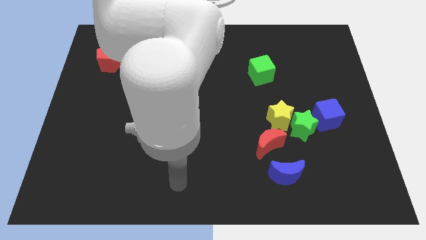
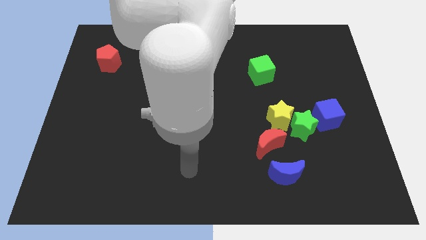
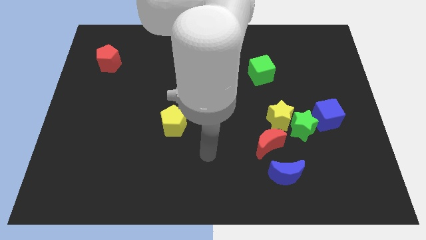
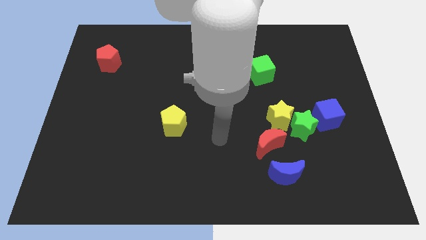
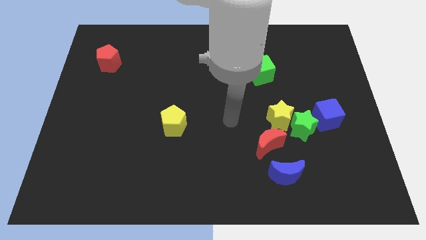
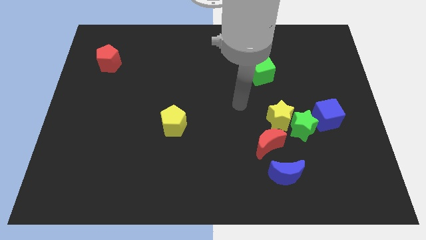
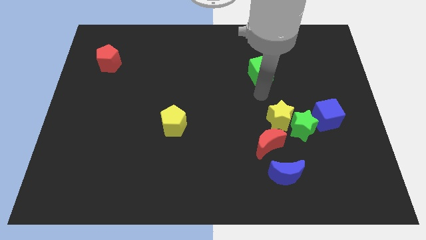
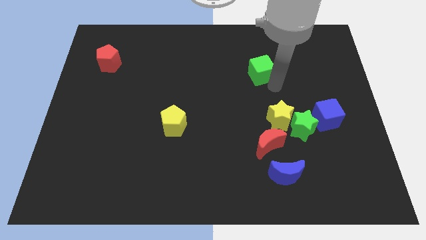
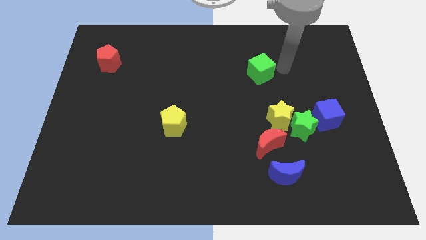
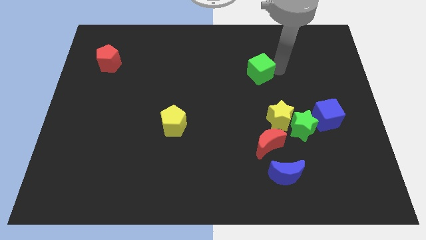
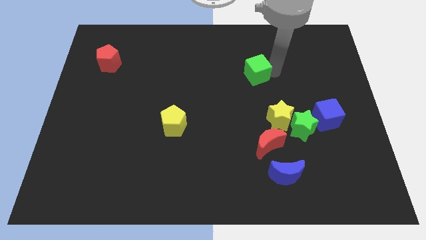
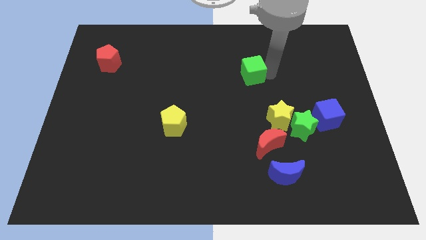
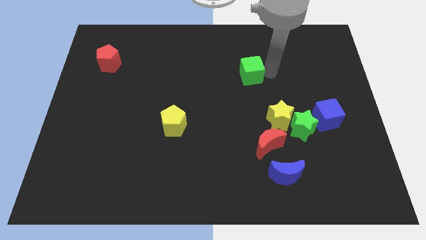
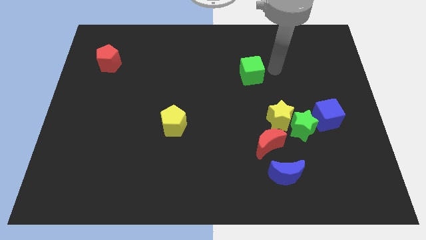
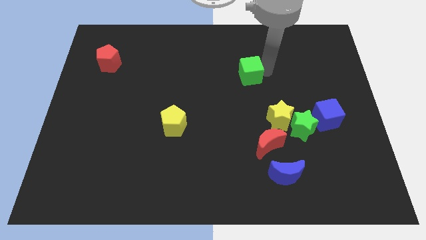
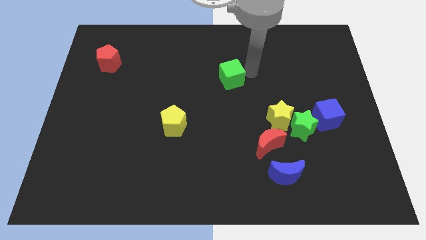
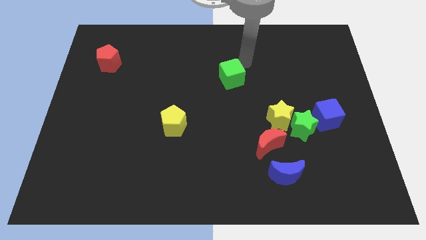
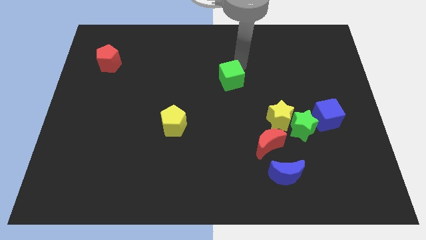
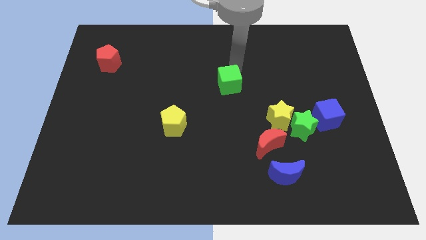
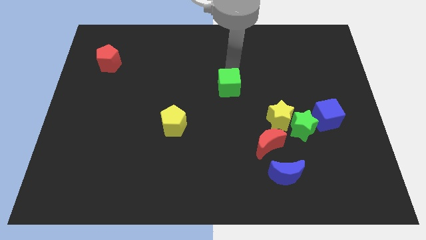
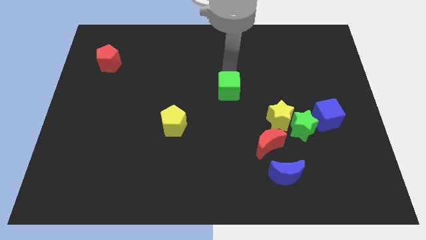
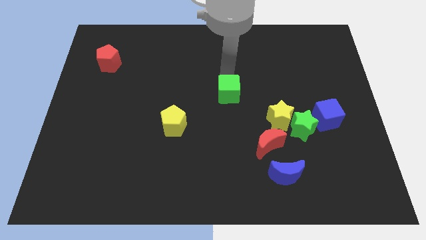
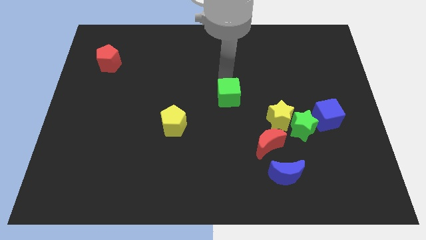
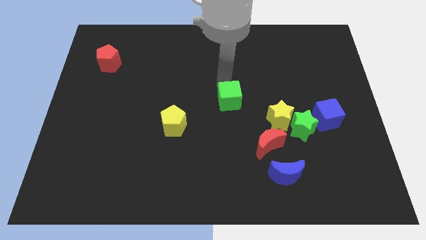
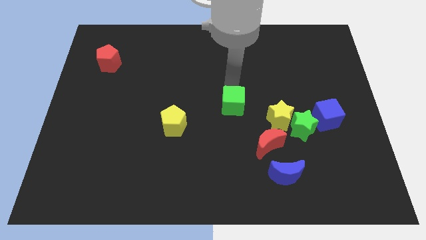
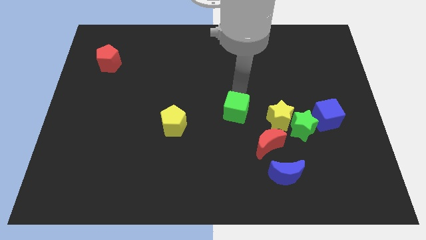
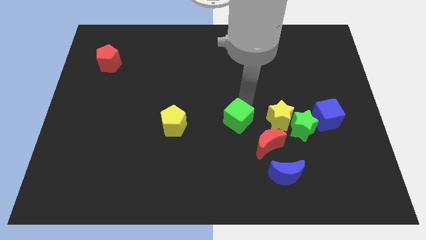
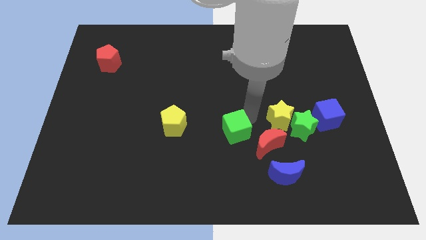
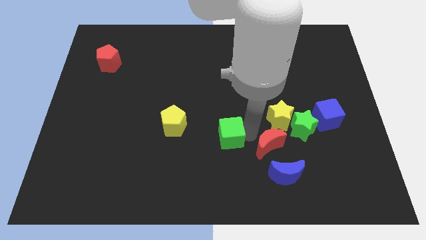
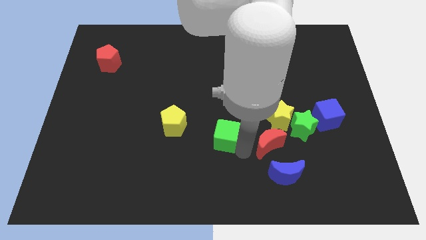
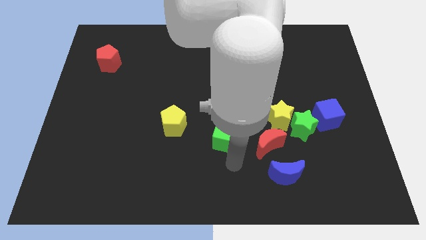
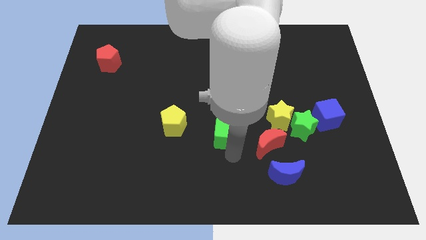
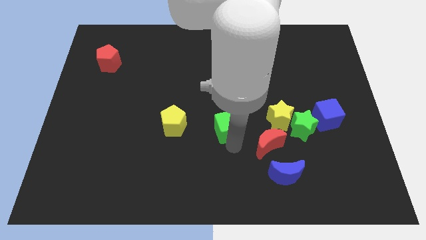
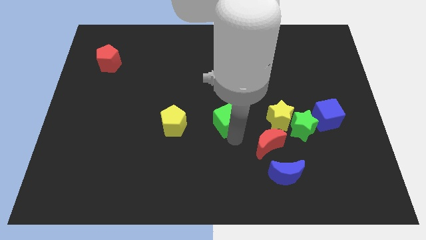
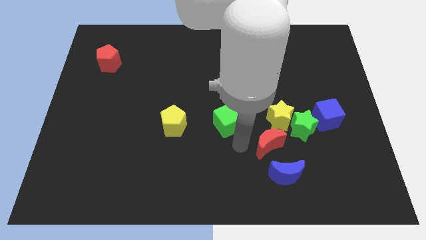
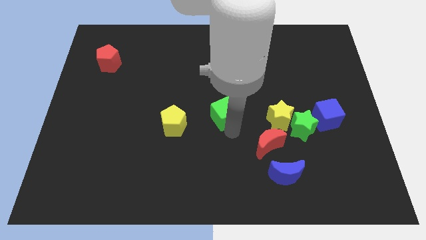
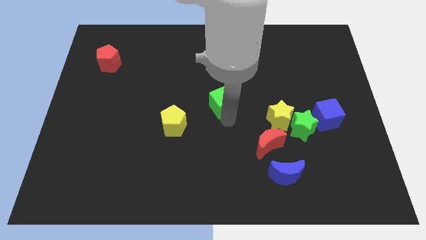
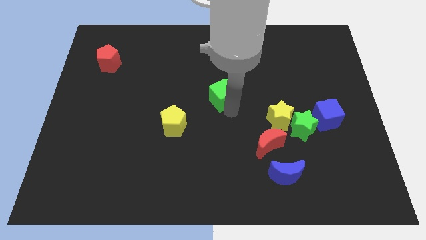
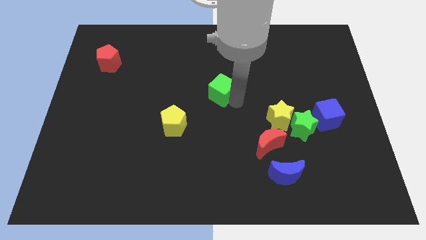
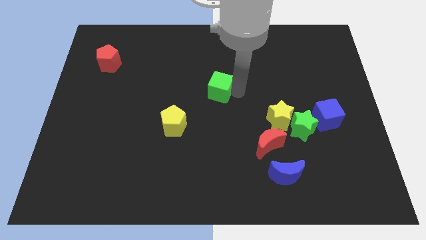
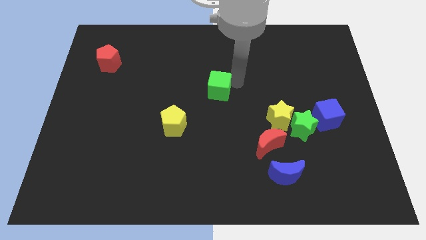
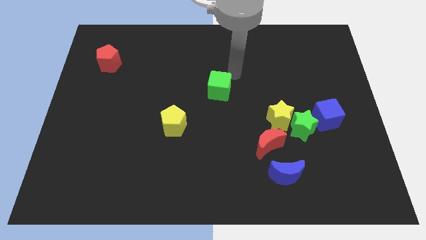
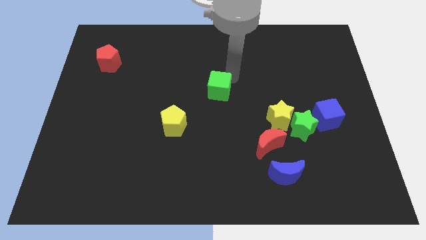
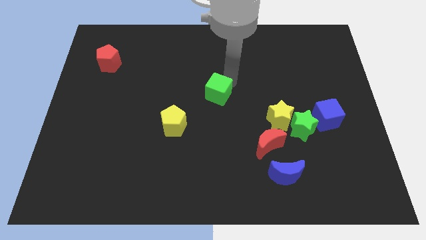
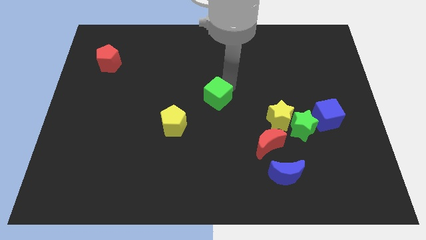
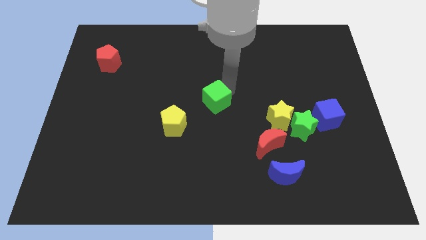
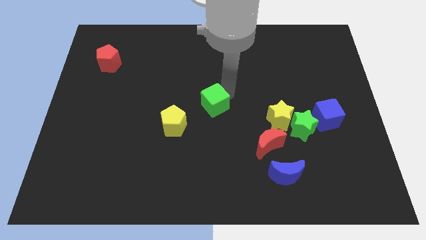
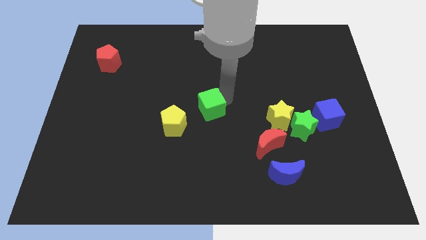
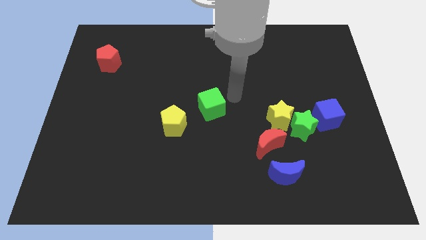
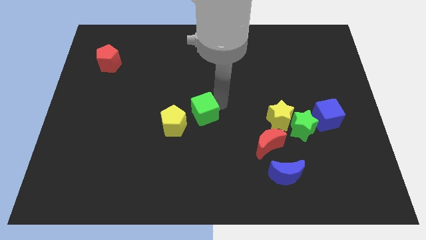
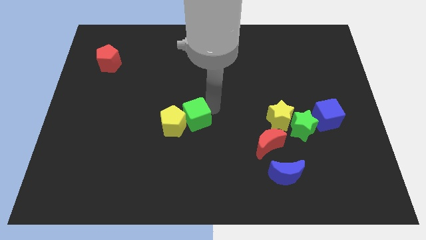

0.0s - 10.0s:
move the green cube to the yellow pentagon

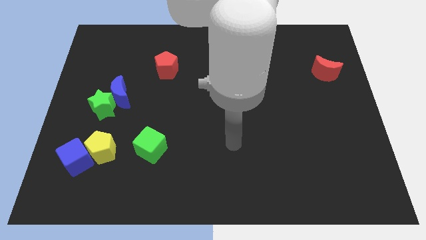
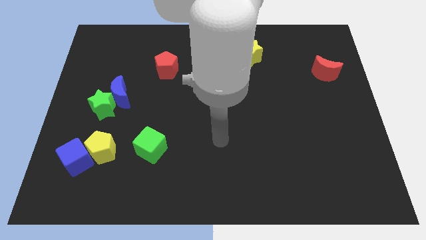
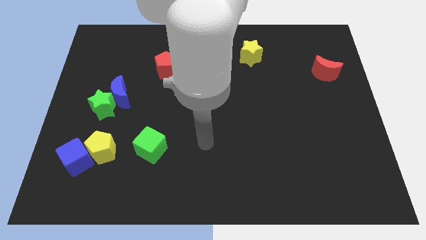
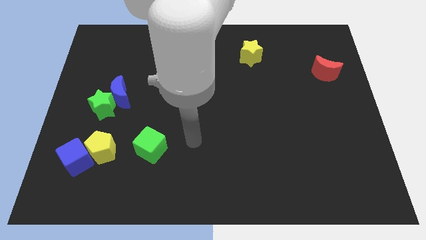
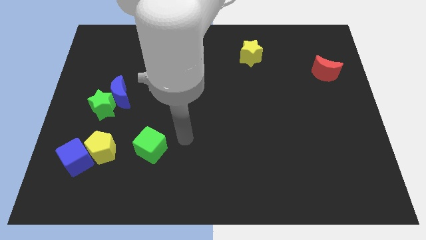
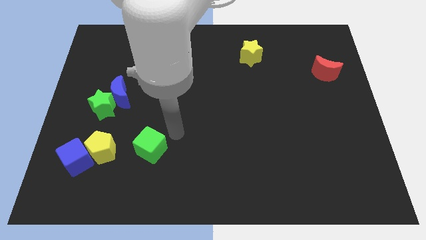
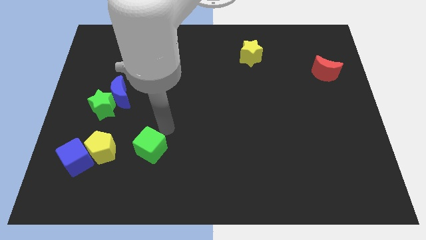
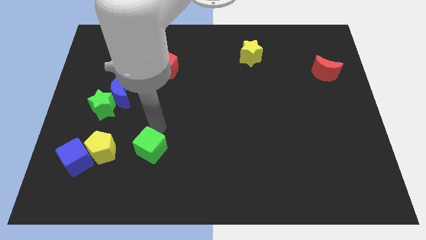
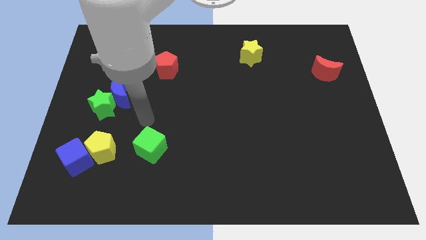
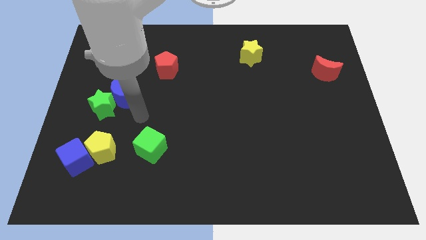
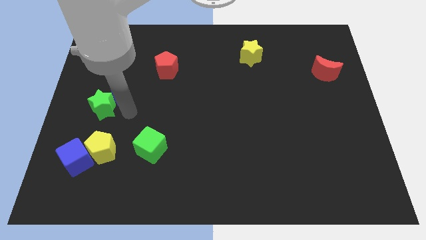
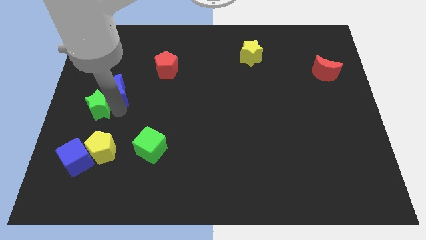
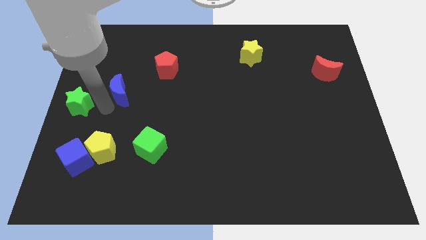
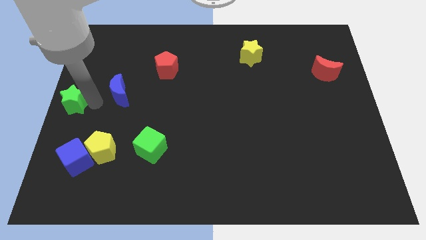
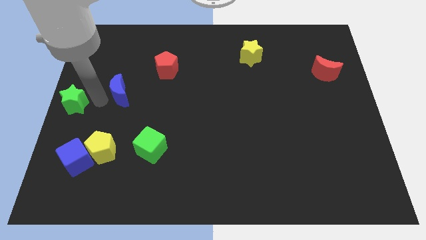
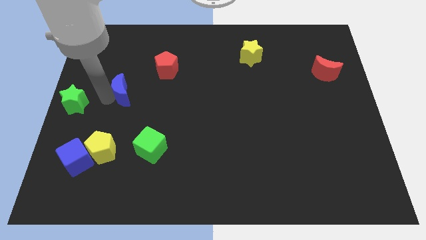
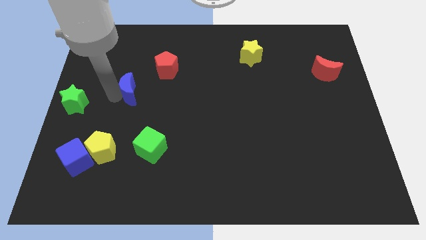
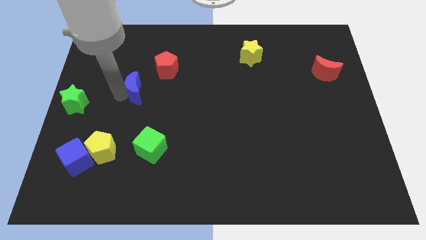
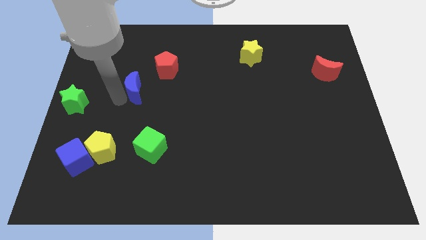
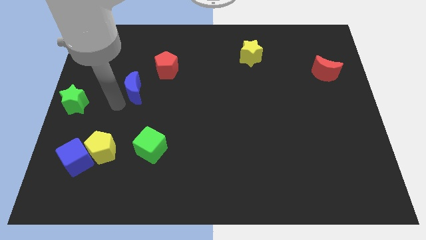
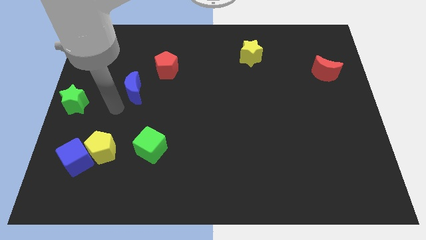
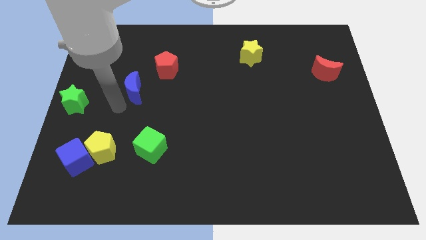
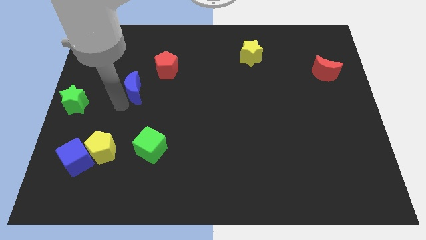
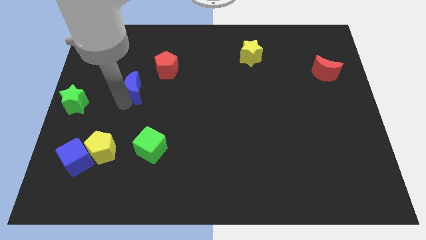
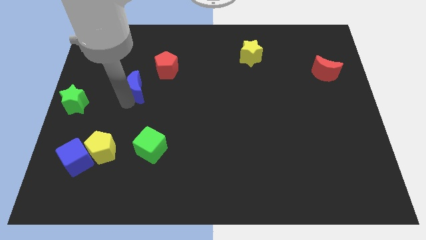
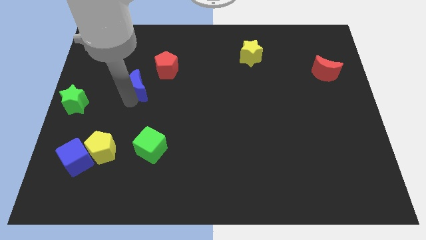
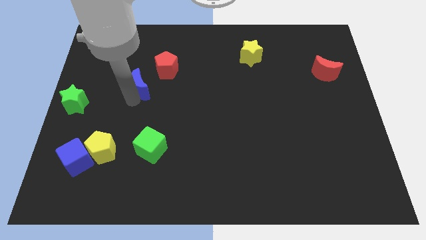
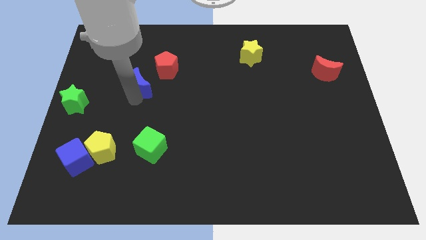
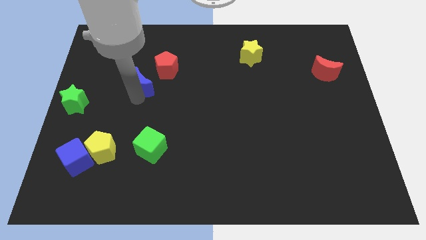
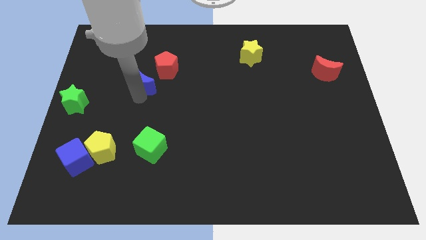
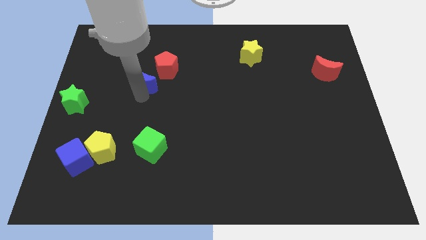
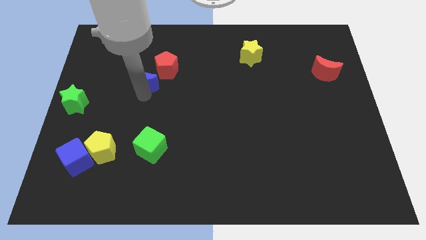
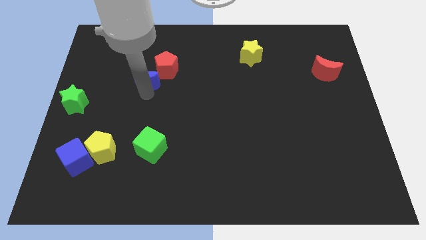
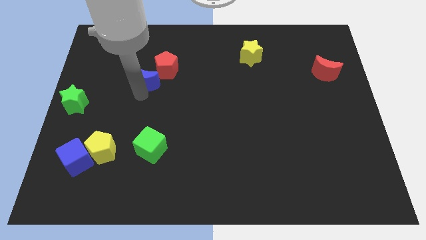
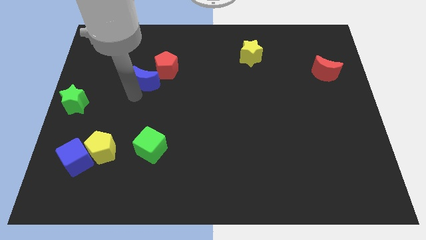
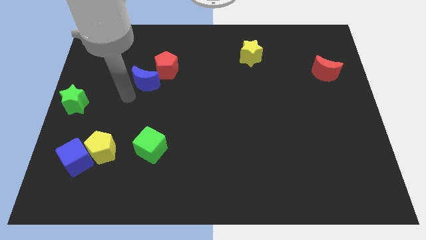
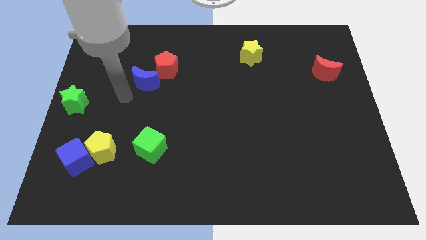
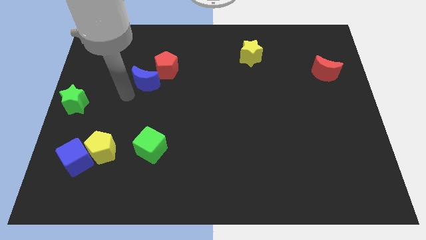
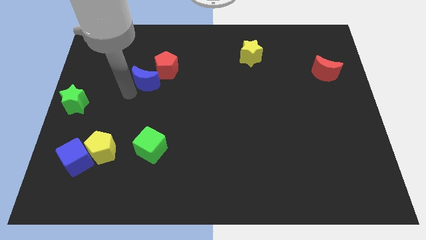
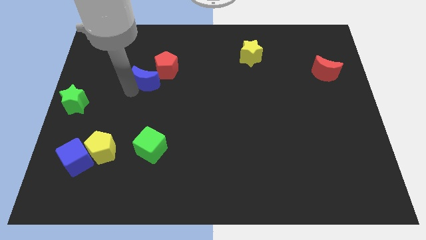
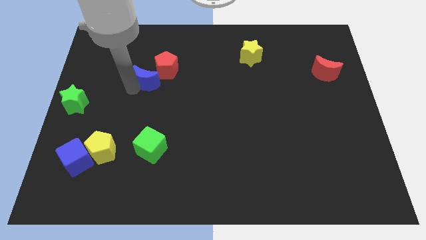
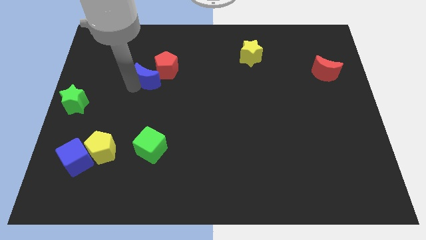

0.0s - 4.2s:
push the blue moon to the red pentagon
